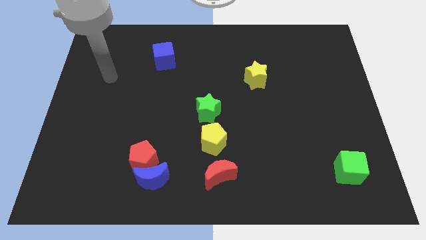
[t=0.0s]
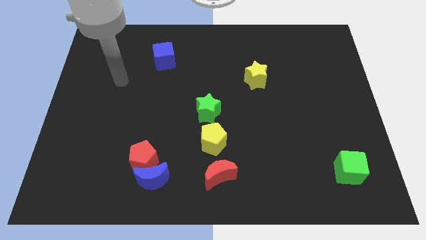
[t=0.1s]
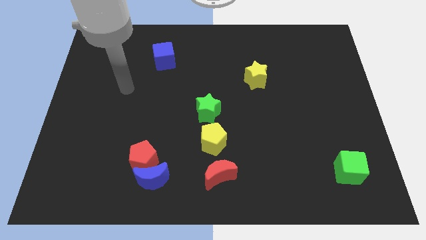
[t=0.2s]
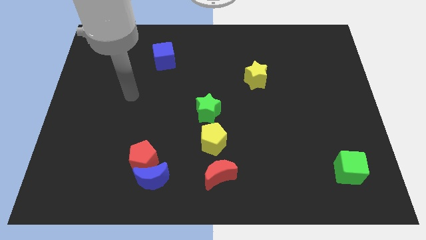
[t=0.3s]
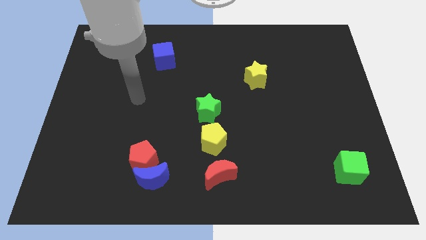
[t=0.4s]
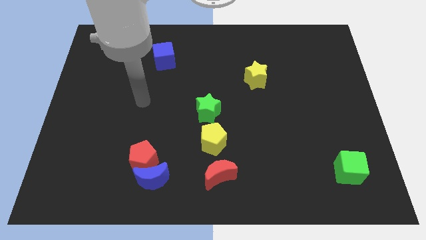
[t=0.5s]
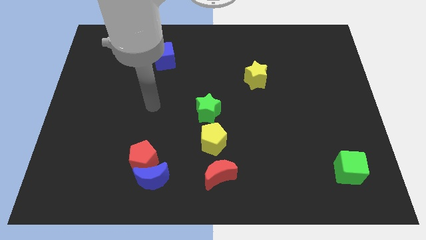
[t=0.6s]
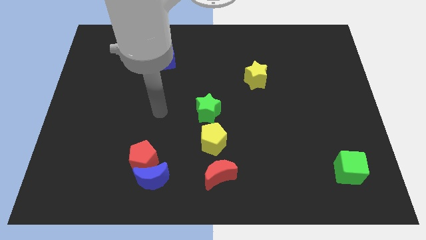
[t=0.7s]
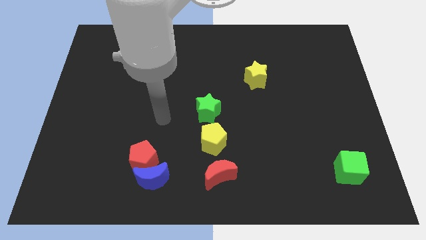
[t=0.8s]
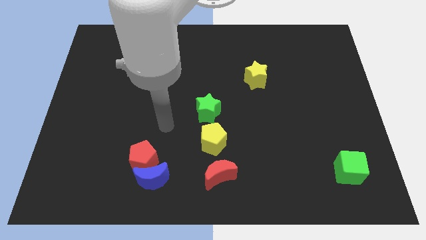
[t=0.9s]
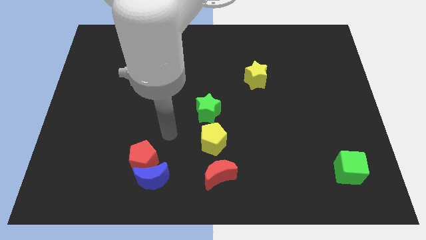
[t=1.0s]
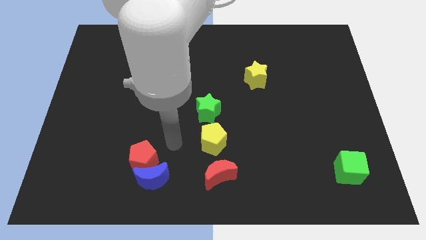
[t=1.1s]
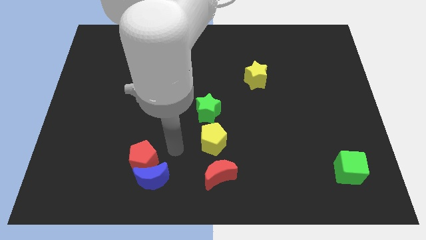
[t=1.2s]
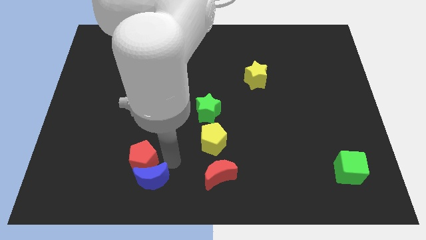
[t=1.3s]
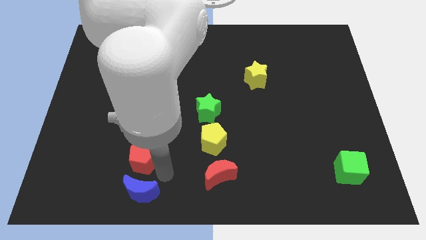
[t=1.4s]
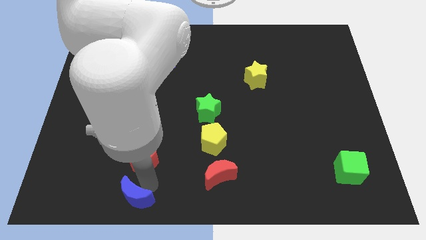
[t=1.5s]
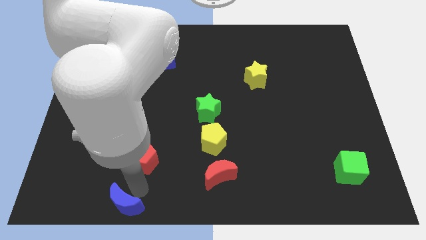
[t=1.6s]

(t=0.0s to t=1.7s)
separate the red pentagon from the blue moon

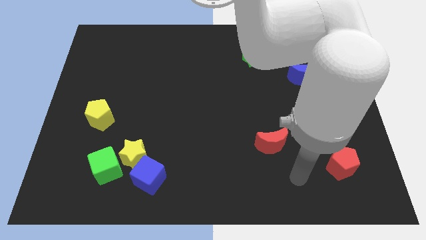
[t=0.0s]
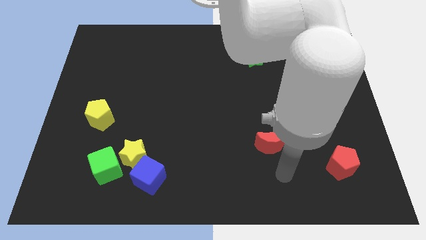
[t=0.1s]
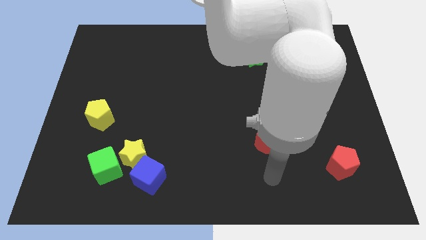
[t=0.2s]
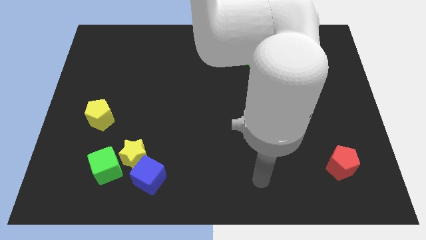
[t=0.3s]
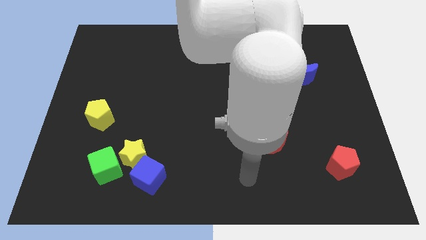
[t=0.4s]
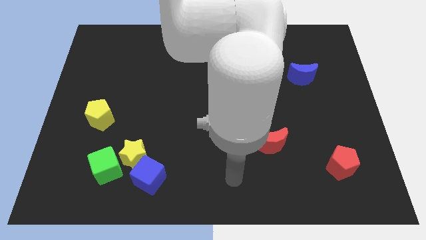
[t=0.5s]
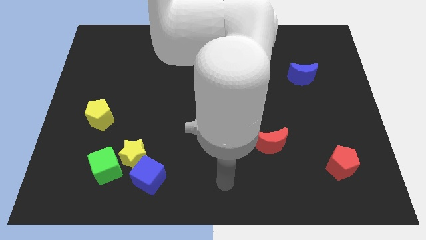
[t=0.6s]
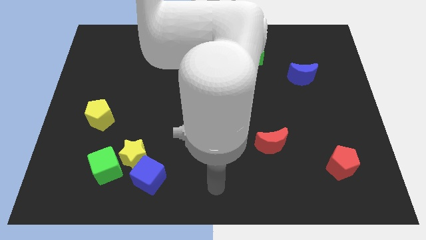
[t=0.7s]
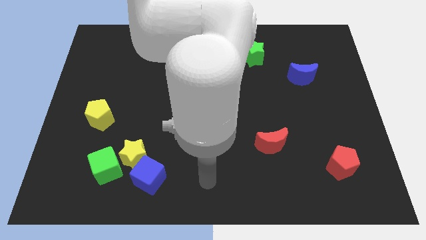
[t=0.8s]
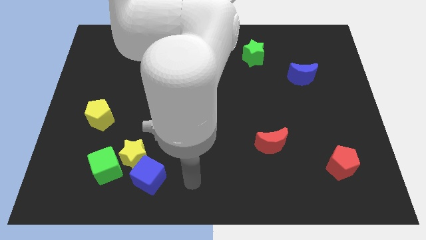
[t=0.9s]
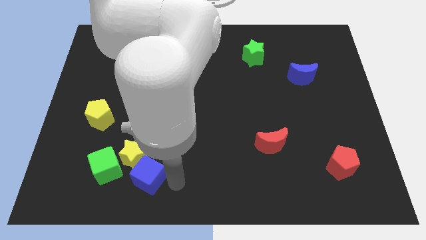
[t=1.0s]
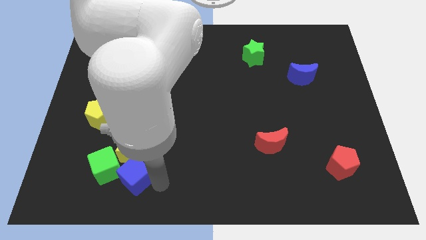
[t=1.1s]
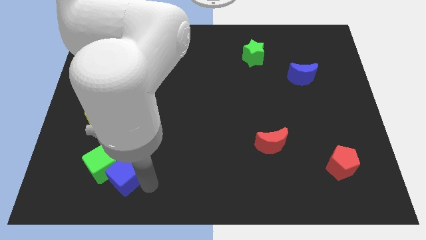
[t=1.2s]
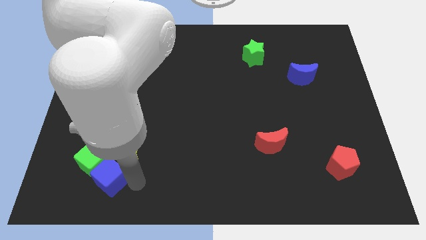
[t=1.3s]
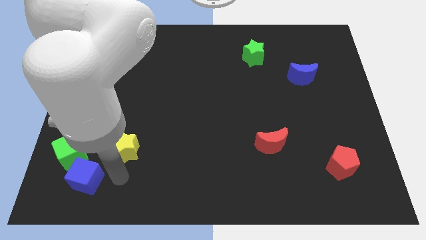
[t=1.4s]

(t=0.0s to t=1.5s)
move the yellow star away from the green cube and blue cube

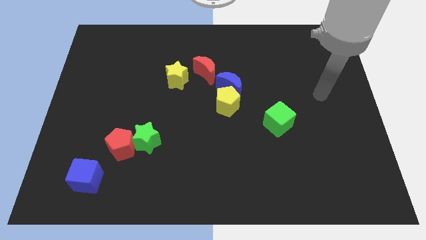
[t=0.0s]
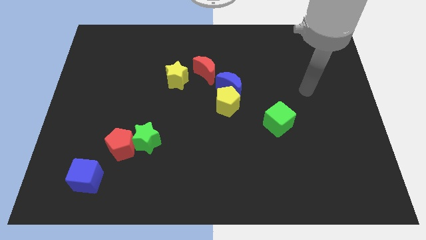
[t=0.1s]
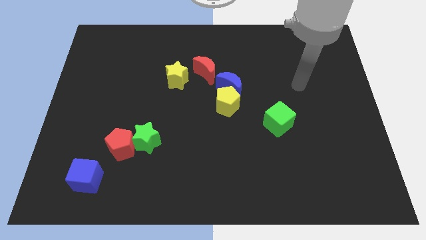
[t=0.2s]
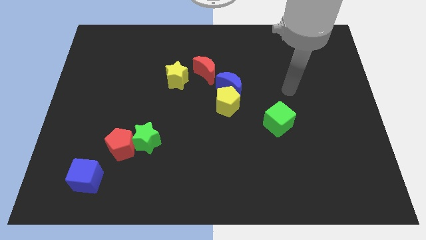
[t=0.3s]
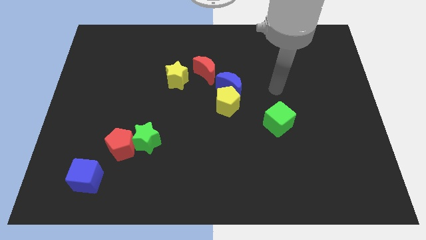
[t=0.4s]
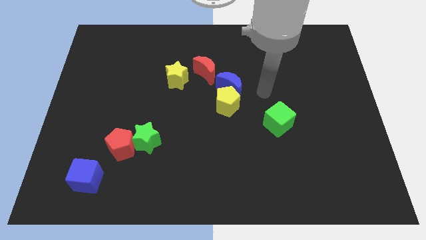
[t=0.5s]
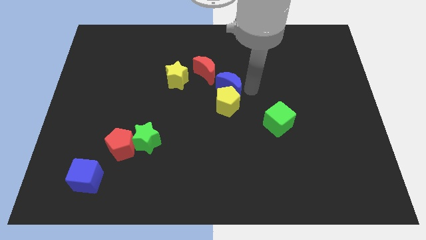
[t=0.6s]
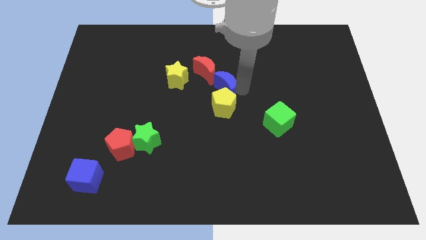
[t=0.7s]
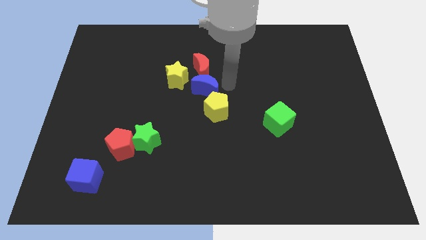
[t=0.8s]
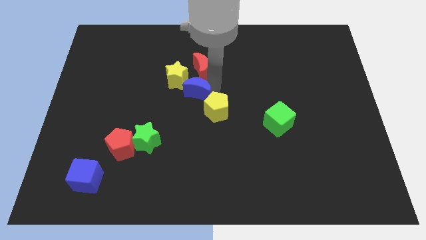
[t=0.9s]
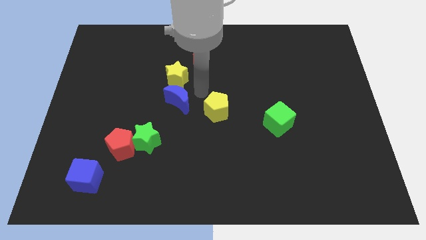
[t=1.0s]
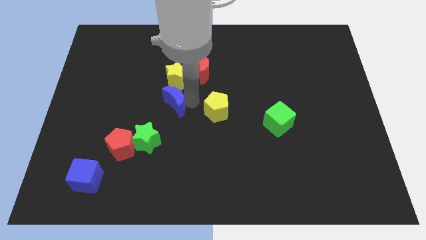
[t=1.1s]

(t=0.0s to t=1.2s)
move the yellow pentagon away from the blue moon

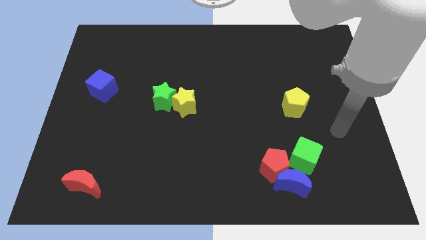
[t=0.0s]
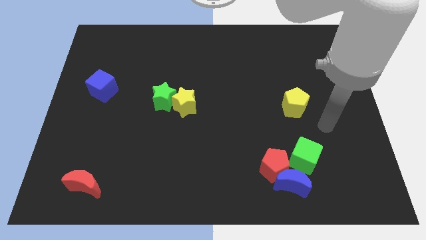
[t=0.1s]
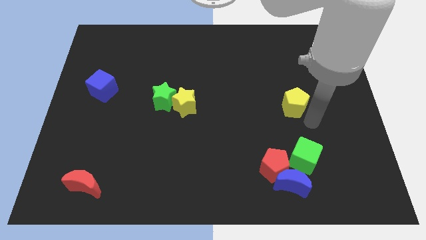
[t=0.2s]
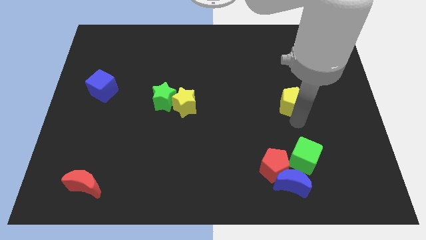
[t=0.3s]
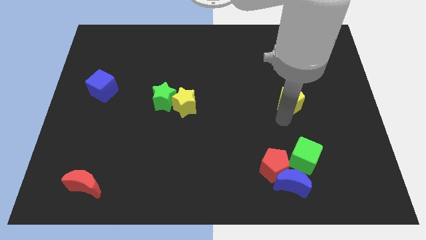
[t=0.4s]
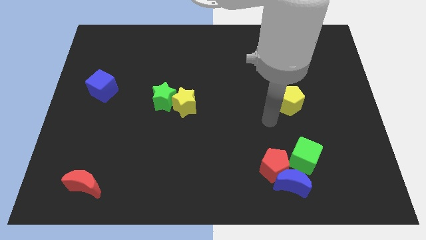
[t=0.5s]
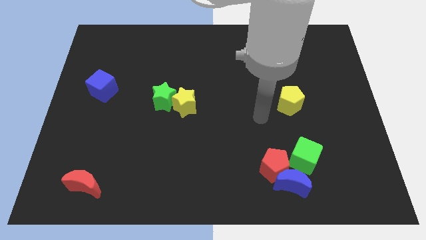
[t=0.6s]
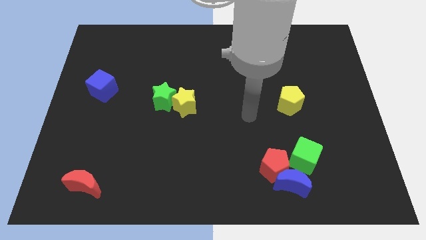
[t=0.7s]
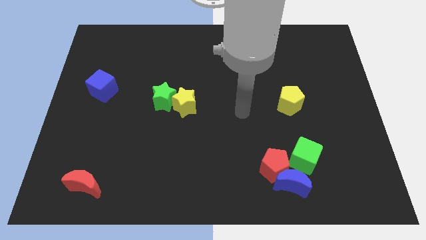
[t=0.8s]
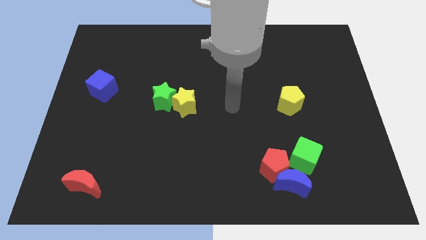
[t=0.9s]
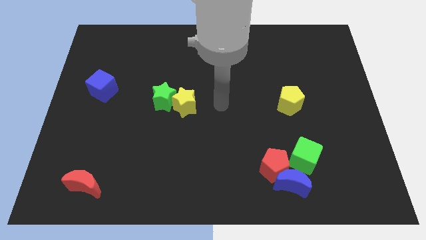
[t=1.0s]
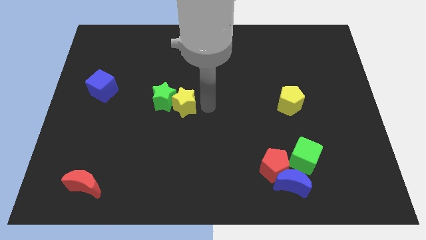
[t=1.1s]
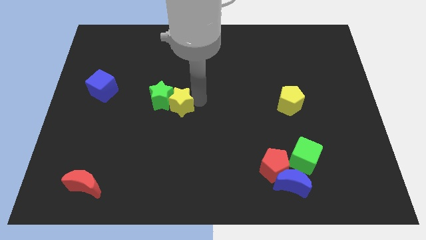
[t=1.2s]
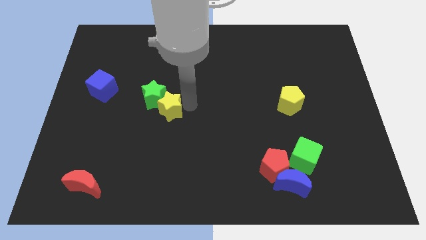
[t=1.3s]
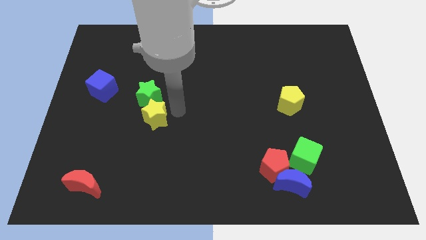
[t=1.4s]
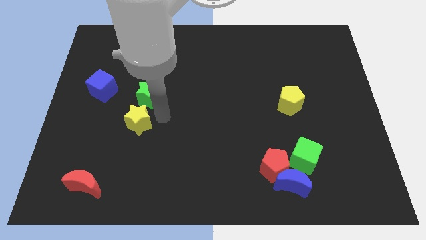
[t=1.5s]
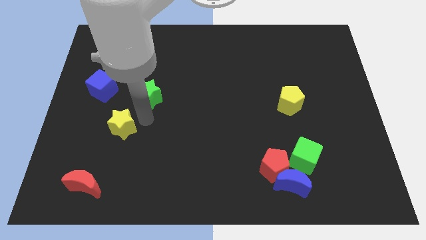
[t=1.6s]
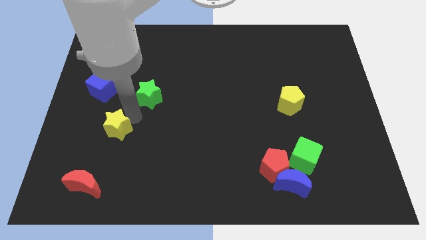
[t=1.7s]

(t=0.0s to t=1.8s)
separate the green star from the yellow star

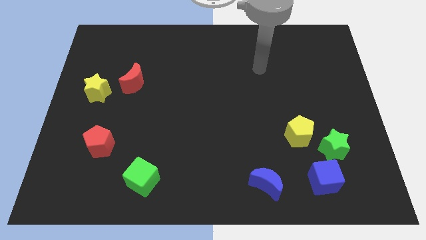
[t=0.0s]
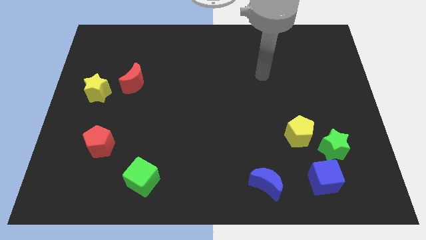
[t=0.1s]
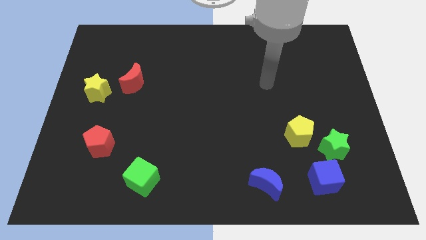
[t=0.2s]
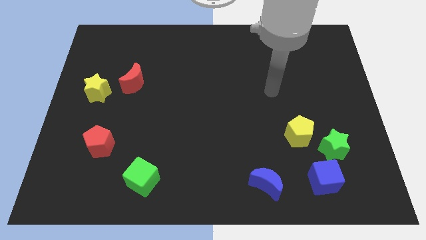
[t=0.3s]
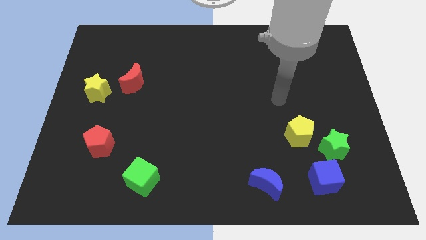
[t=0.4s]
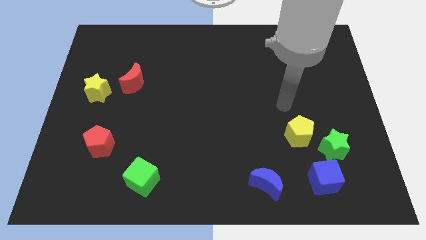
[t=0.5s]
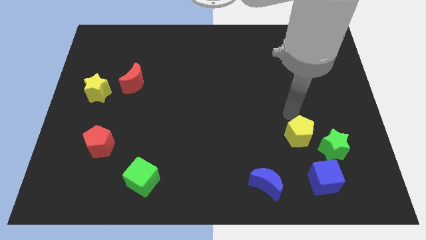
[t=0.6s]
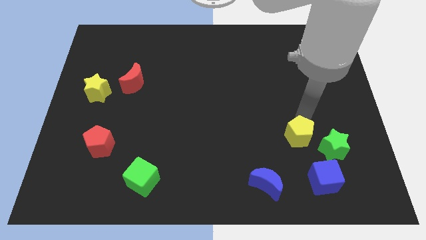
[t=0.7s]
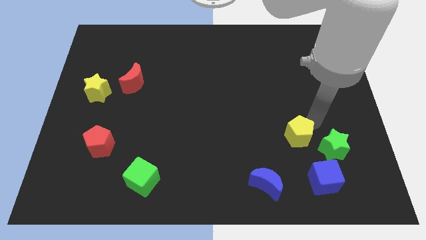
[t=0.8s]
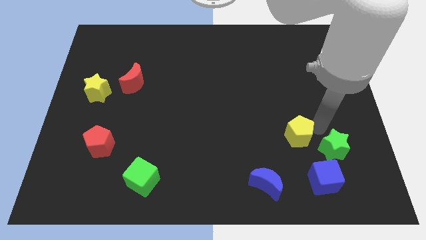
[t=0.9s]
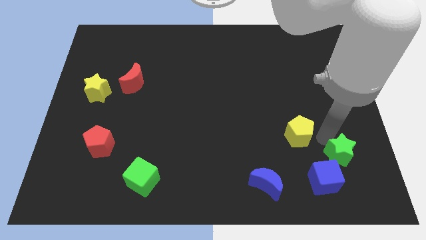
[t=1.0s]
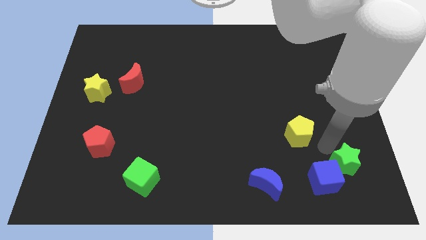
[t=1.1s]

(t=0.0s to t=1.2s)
pull the yellow pentagon apart from the green star

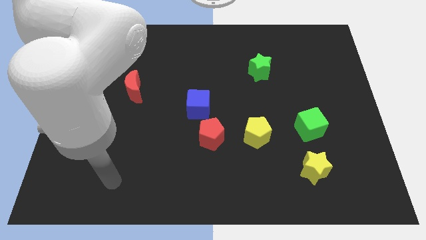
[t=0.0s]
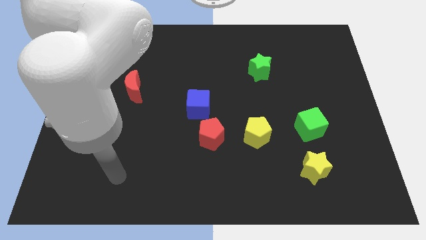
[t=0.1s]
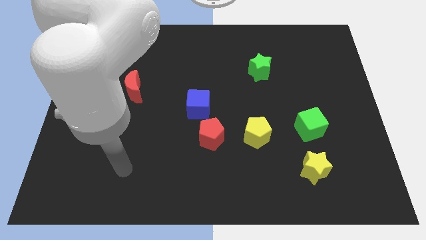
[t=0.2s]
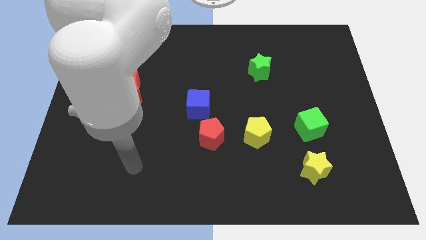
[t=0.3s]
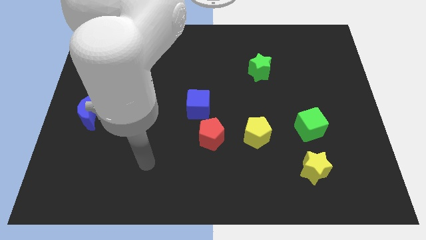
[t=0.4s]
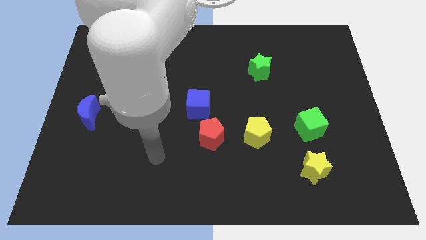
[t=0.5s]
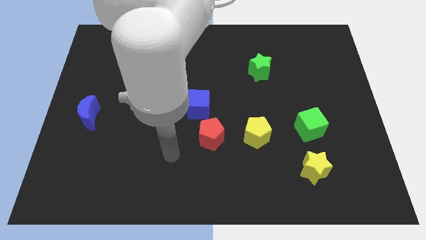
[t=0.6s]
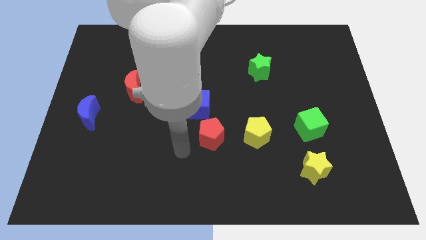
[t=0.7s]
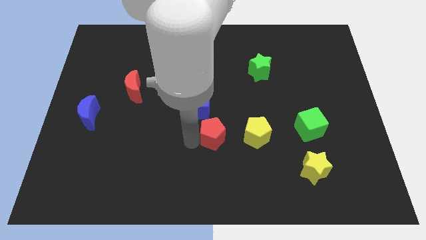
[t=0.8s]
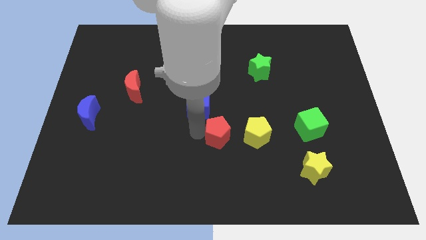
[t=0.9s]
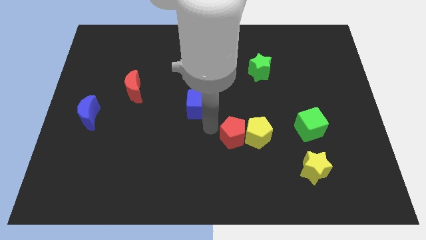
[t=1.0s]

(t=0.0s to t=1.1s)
move the blue cube away from the red pentagon

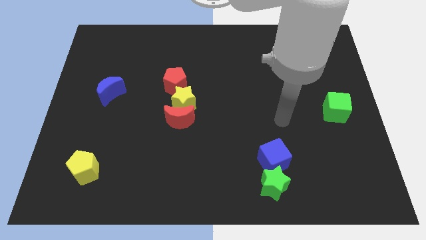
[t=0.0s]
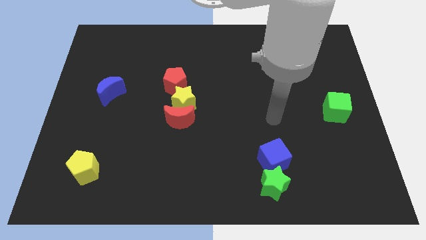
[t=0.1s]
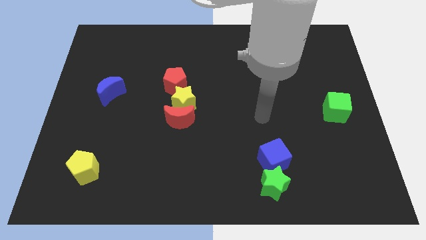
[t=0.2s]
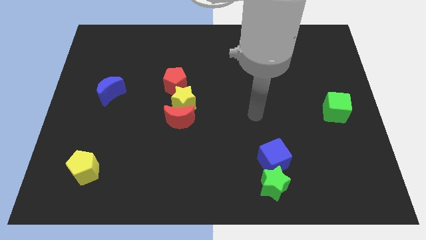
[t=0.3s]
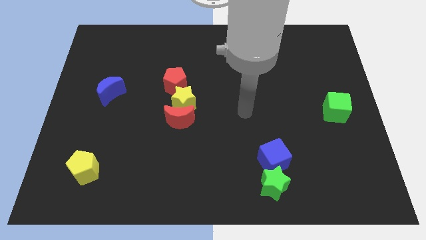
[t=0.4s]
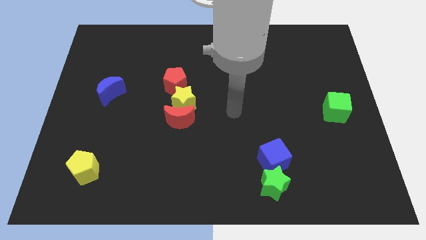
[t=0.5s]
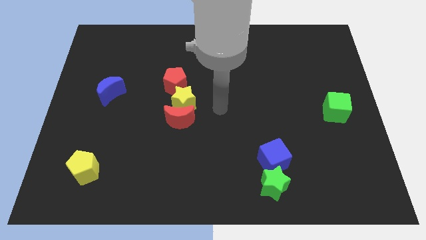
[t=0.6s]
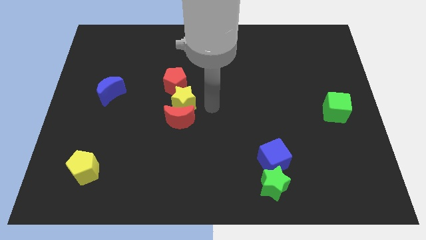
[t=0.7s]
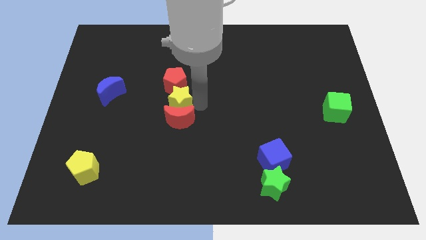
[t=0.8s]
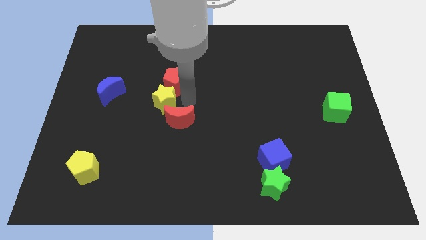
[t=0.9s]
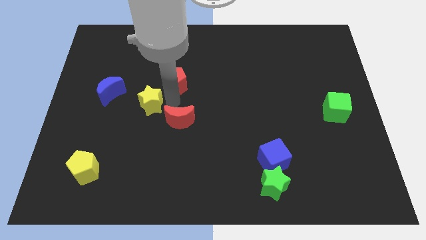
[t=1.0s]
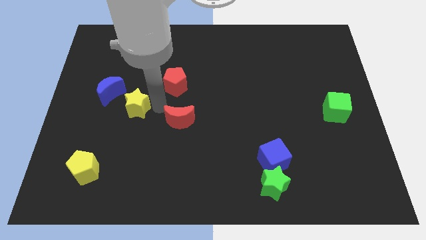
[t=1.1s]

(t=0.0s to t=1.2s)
pull the red moon apart from the yellow star
